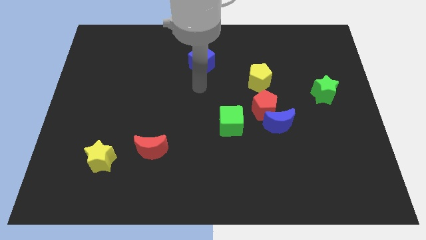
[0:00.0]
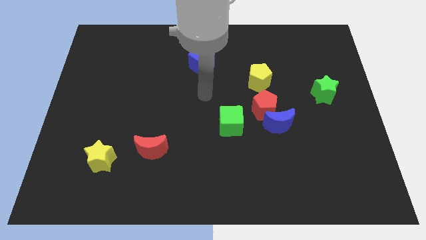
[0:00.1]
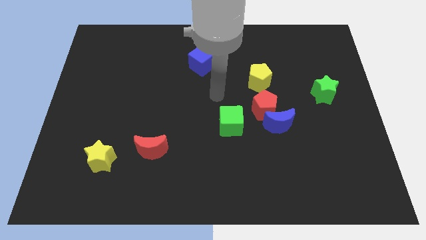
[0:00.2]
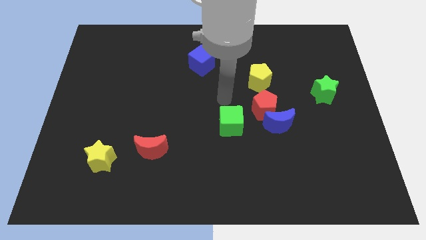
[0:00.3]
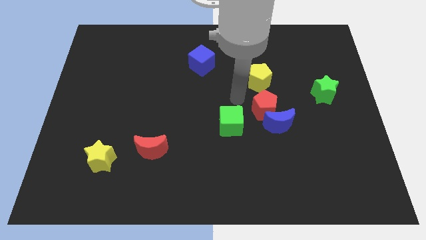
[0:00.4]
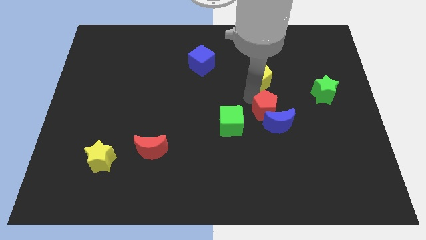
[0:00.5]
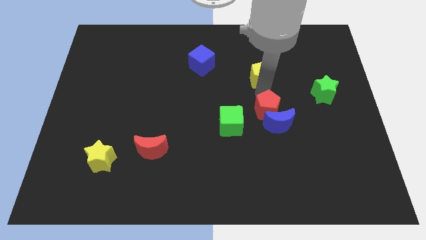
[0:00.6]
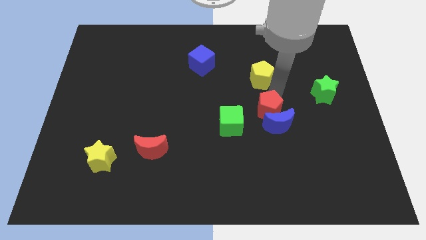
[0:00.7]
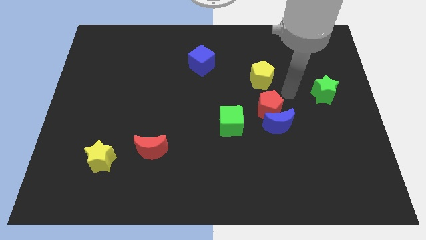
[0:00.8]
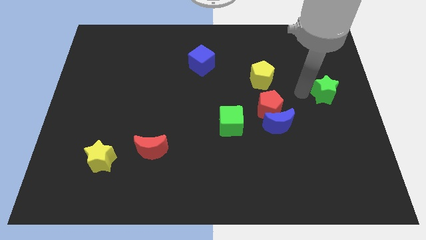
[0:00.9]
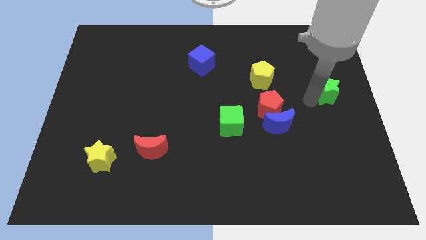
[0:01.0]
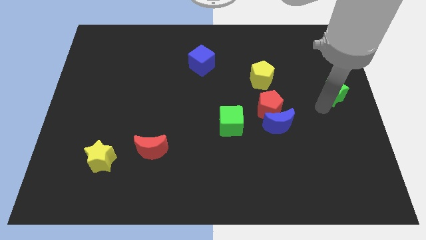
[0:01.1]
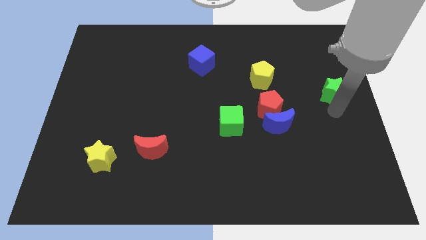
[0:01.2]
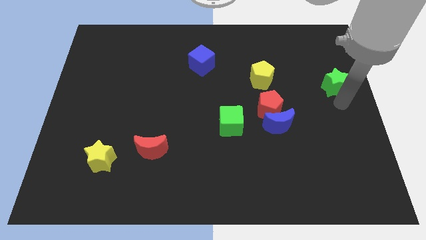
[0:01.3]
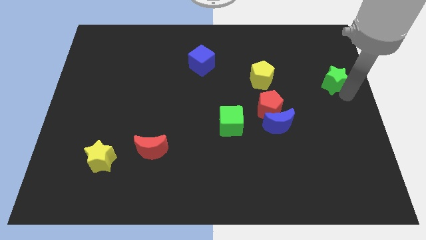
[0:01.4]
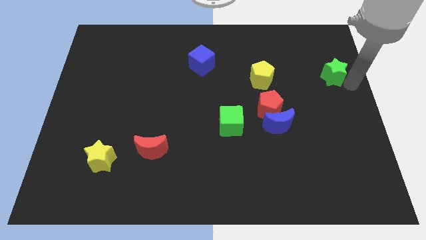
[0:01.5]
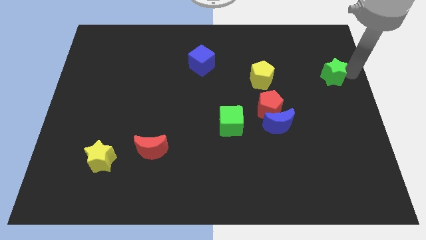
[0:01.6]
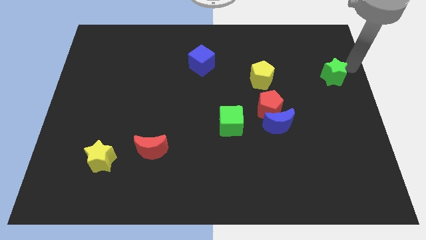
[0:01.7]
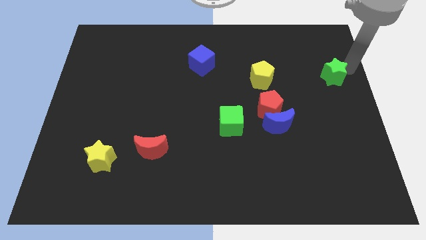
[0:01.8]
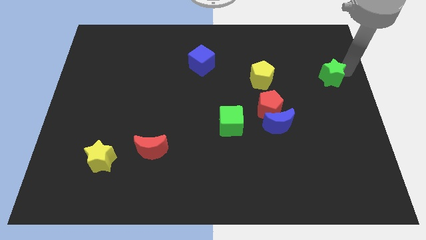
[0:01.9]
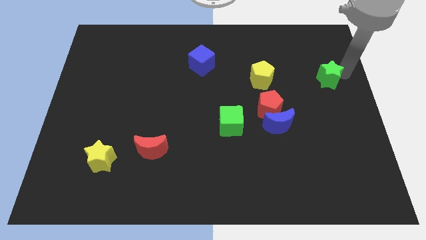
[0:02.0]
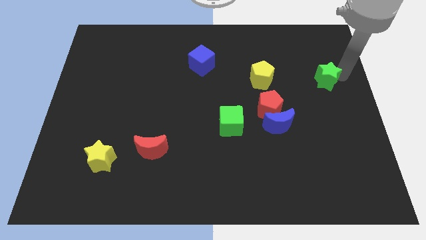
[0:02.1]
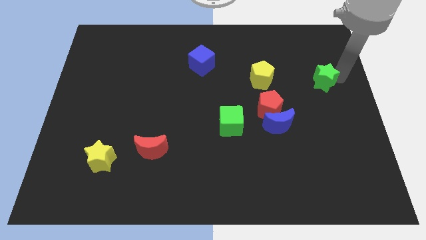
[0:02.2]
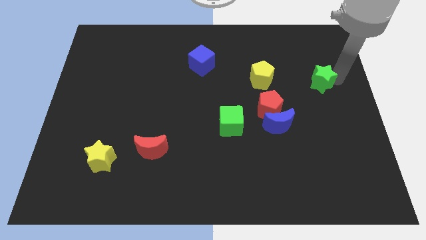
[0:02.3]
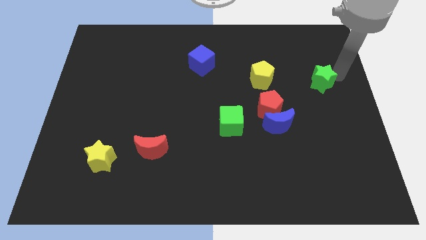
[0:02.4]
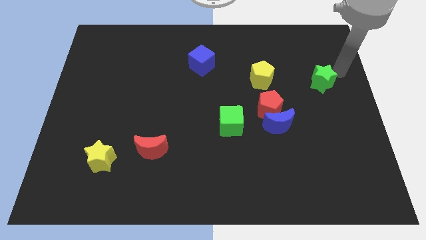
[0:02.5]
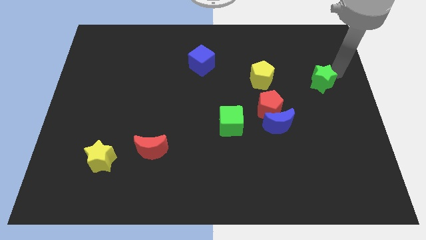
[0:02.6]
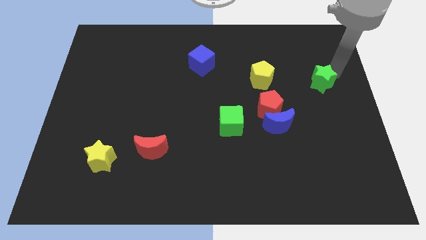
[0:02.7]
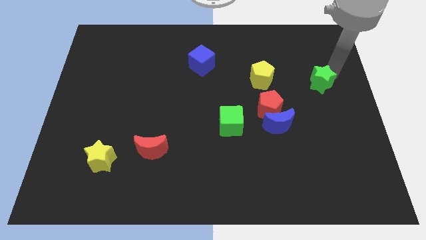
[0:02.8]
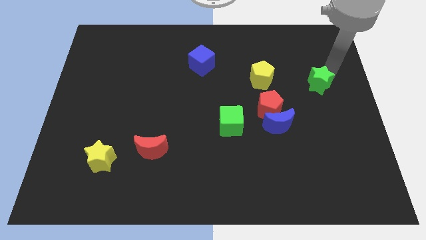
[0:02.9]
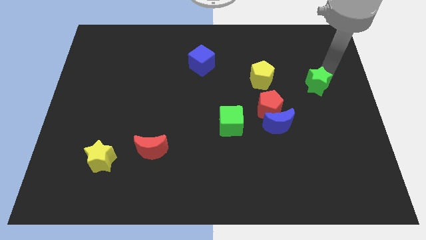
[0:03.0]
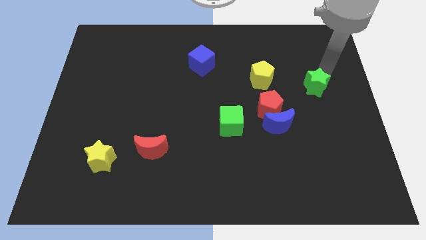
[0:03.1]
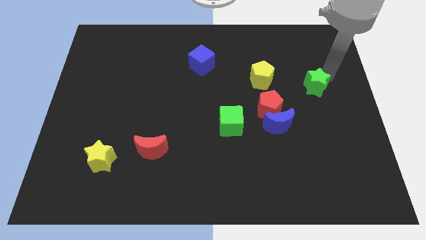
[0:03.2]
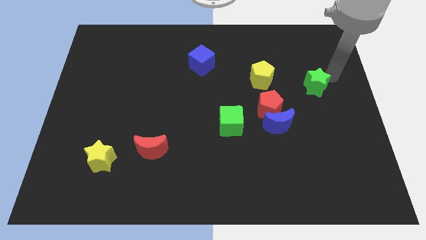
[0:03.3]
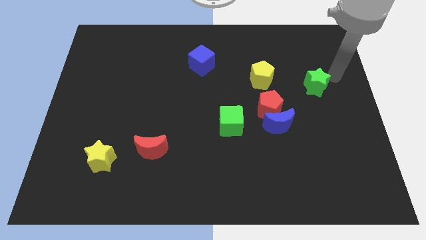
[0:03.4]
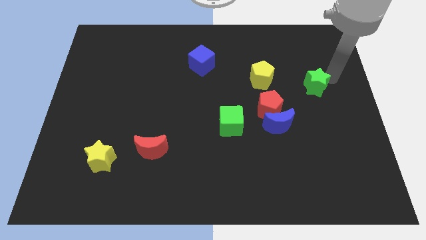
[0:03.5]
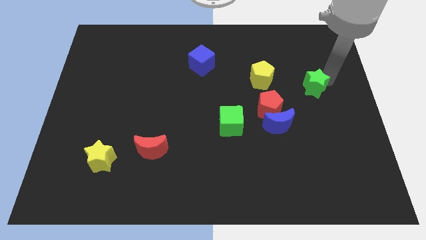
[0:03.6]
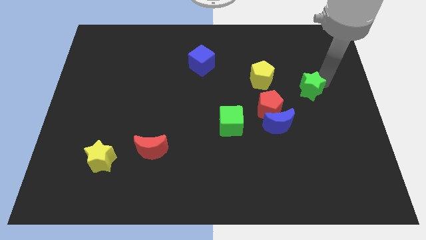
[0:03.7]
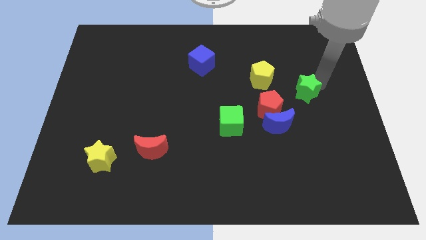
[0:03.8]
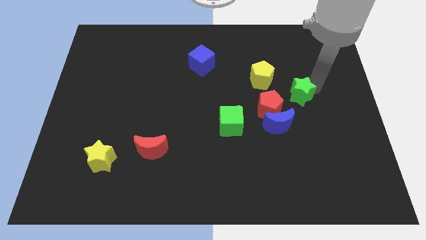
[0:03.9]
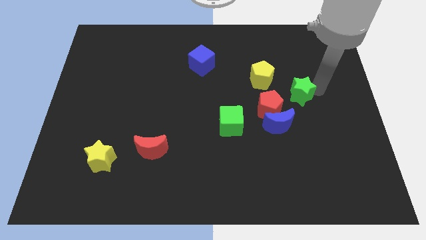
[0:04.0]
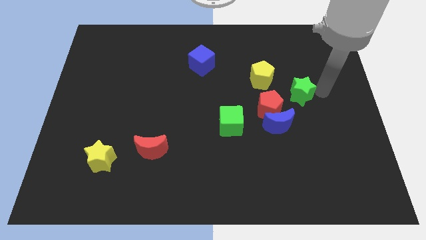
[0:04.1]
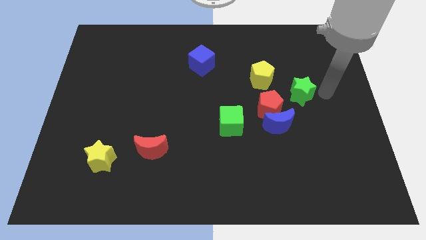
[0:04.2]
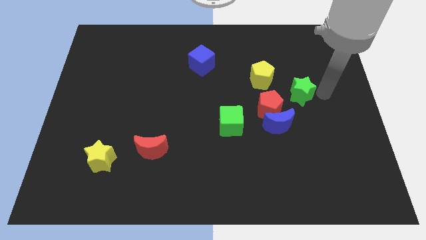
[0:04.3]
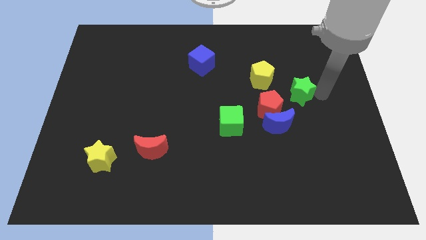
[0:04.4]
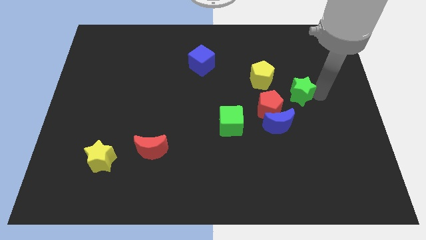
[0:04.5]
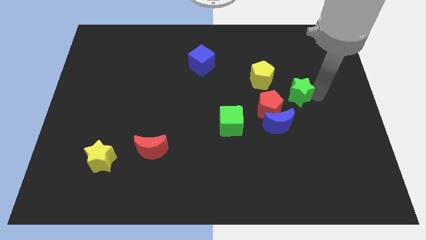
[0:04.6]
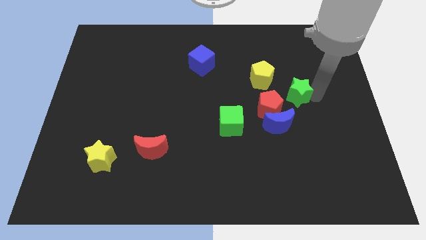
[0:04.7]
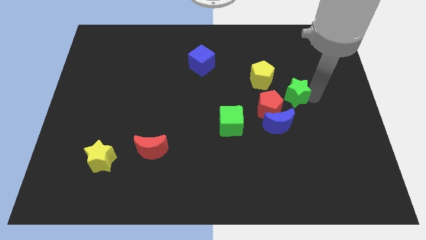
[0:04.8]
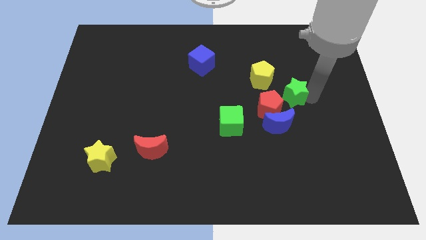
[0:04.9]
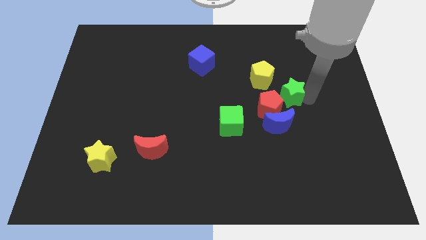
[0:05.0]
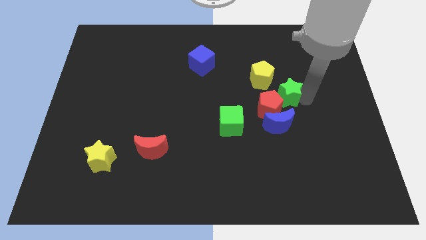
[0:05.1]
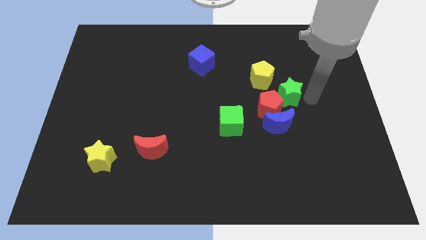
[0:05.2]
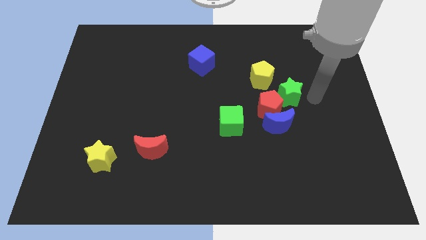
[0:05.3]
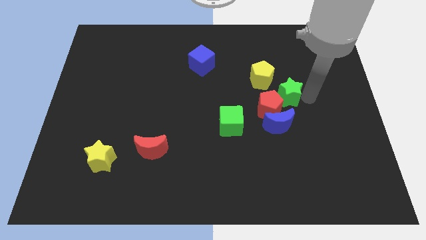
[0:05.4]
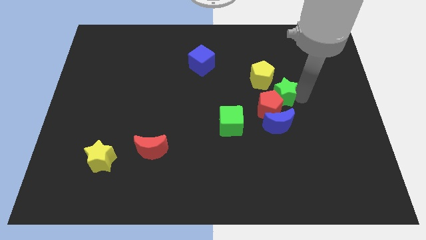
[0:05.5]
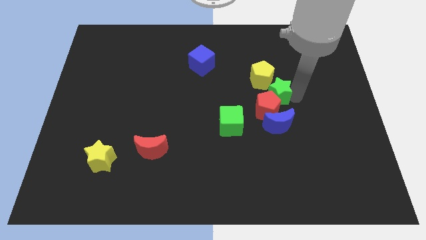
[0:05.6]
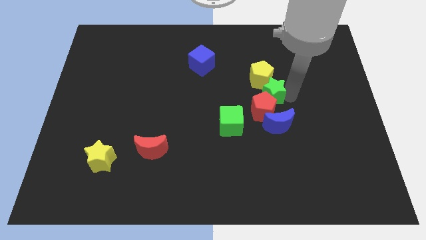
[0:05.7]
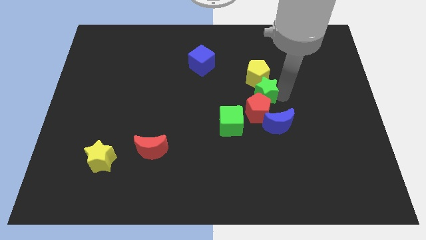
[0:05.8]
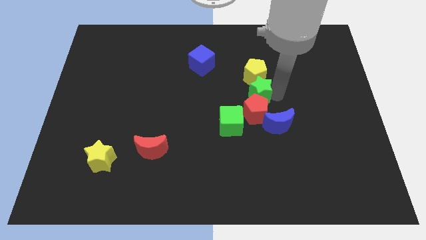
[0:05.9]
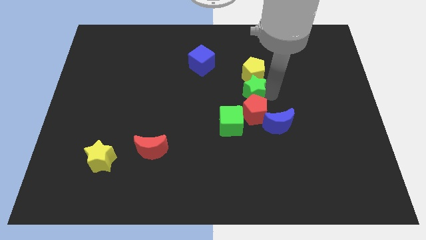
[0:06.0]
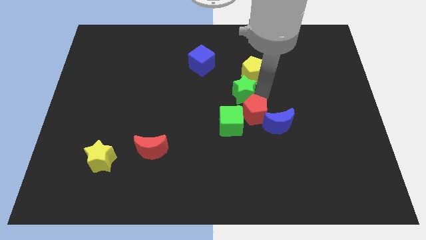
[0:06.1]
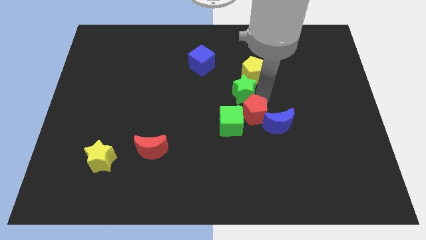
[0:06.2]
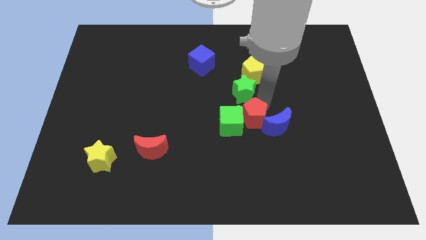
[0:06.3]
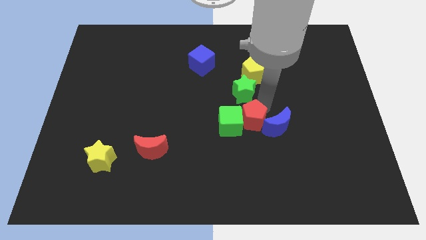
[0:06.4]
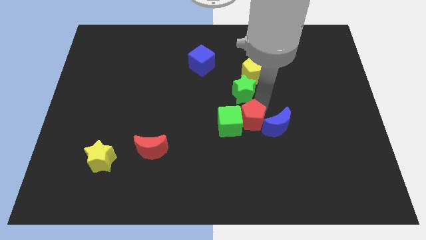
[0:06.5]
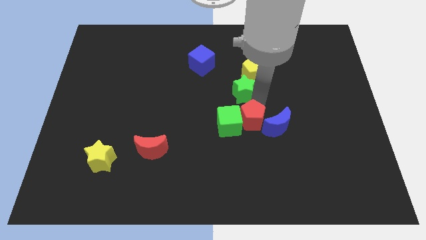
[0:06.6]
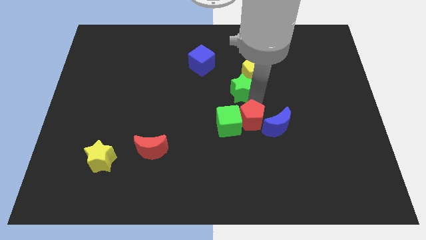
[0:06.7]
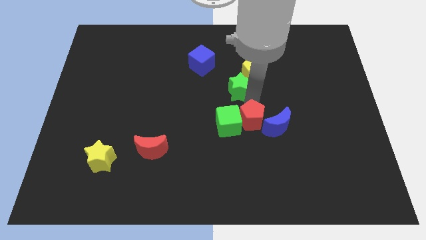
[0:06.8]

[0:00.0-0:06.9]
push the green star to the bottom right side of the blue cube
